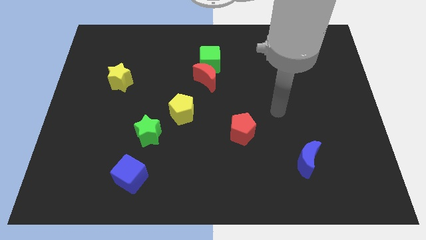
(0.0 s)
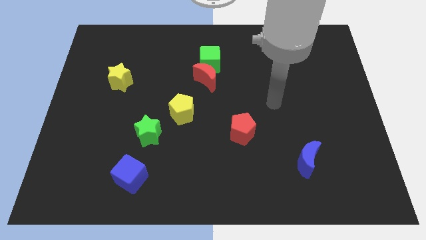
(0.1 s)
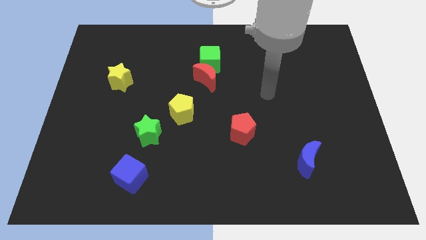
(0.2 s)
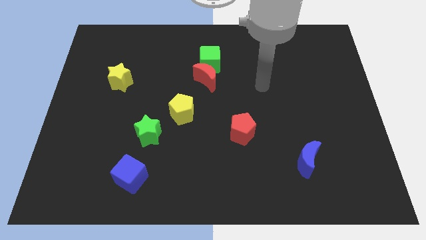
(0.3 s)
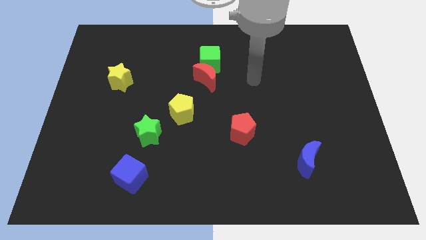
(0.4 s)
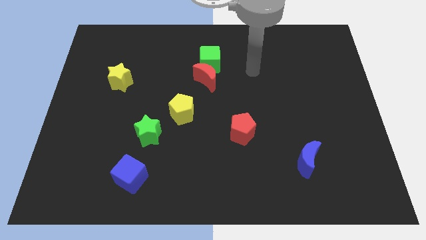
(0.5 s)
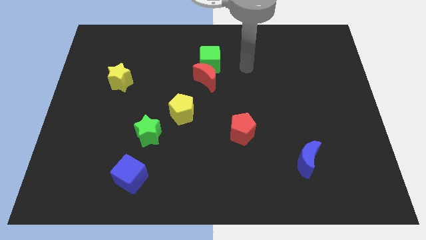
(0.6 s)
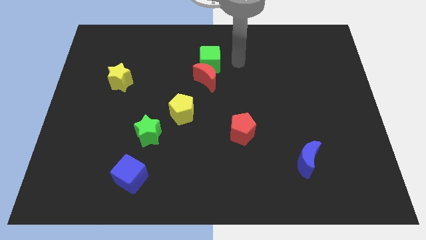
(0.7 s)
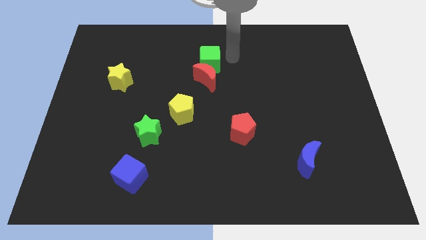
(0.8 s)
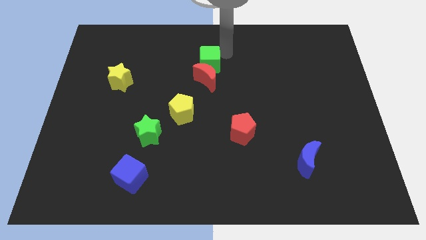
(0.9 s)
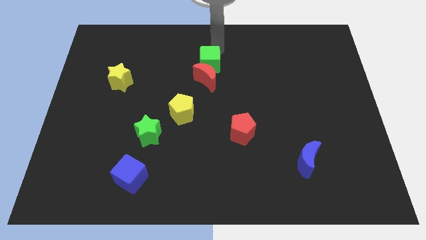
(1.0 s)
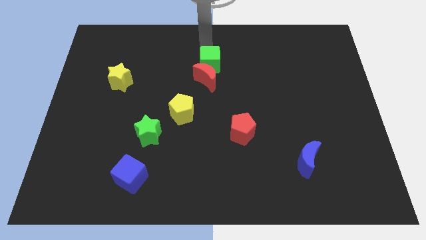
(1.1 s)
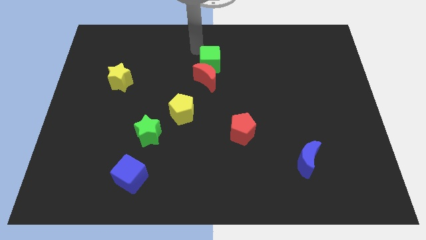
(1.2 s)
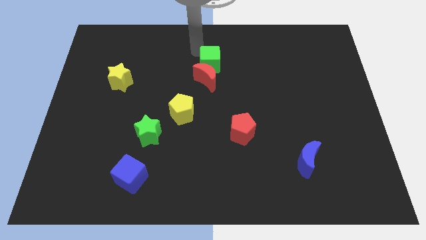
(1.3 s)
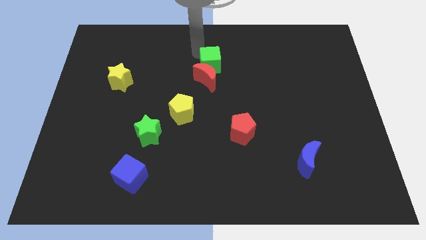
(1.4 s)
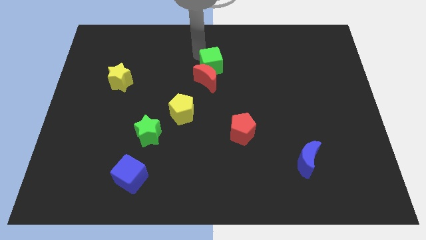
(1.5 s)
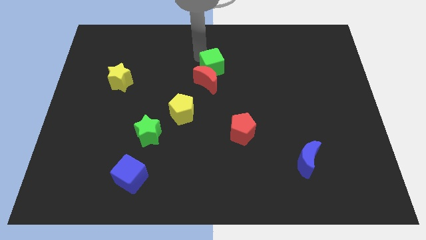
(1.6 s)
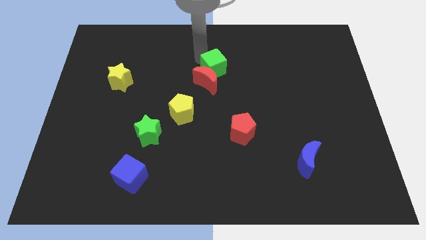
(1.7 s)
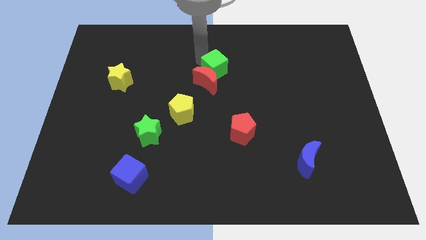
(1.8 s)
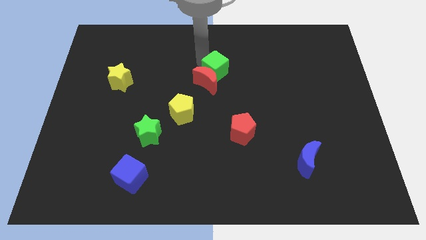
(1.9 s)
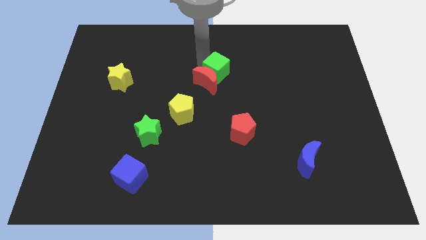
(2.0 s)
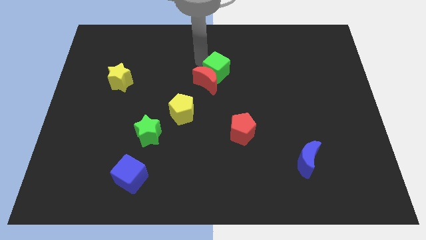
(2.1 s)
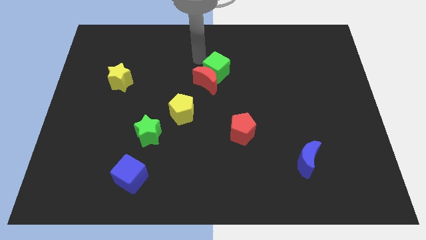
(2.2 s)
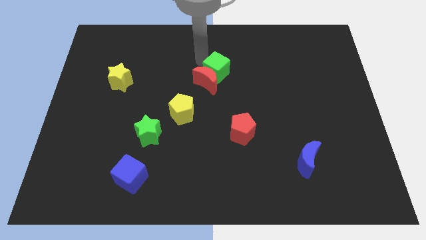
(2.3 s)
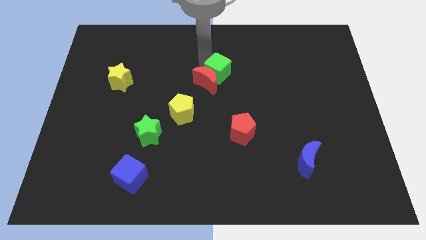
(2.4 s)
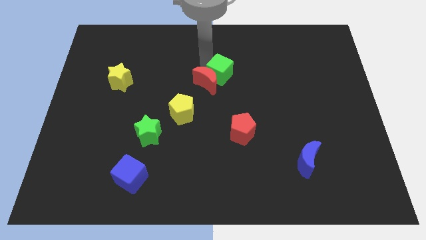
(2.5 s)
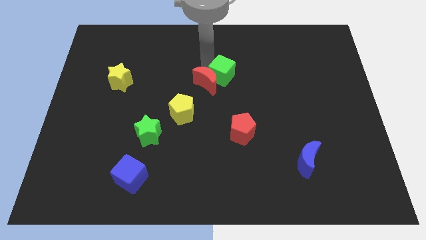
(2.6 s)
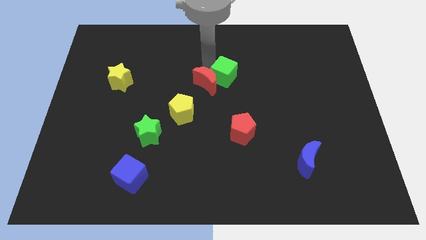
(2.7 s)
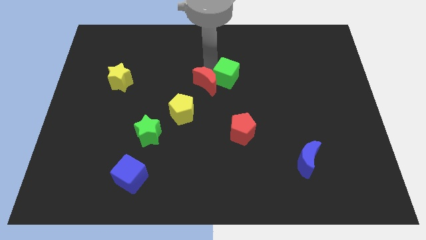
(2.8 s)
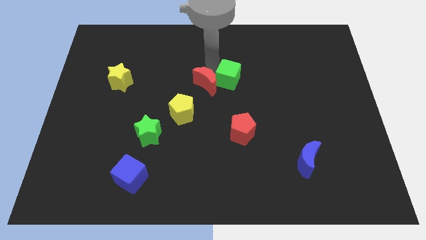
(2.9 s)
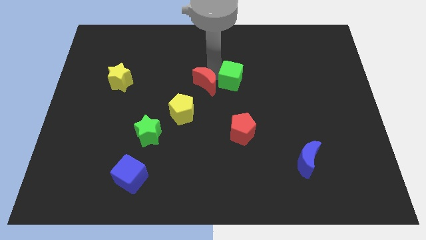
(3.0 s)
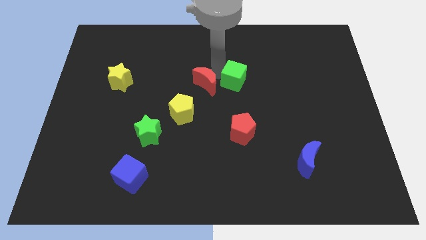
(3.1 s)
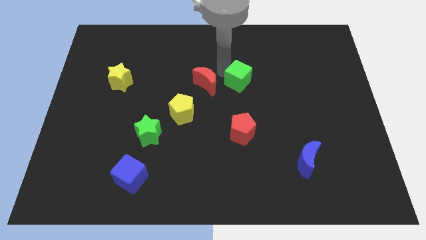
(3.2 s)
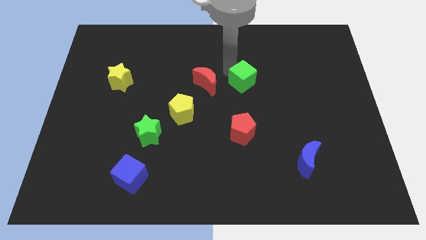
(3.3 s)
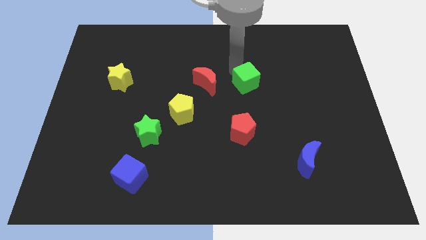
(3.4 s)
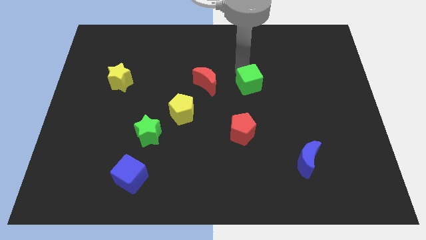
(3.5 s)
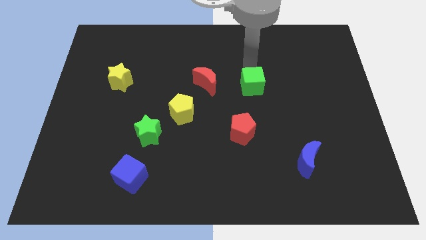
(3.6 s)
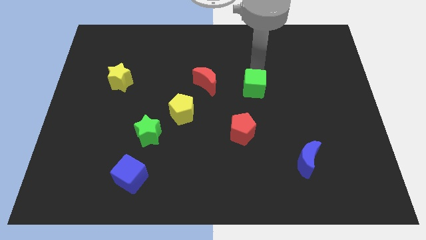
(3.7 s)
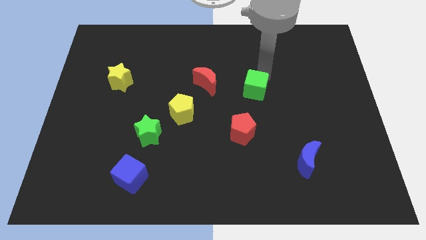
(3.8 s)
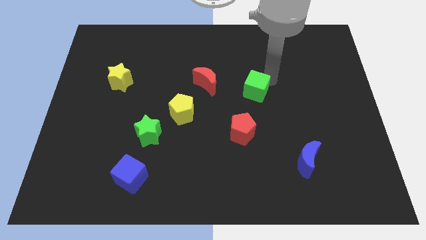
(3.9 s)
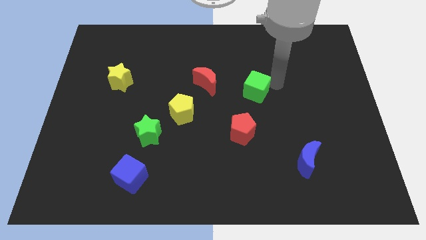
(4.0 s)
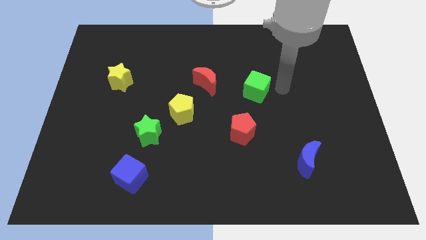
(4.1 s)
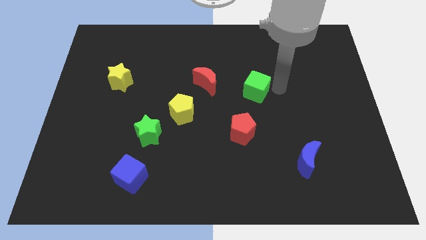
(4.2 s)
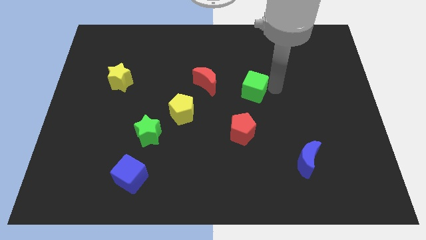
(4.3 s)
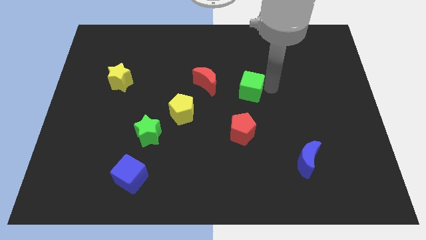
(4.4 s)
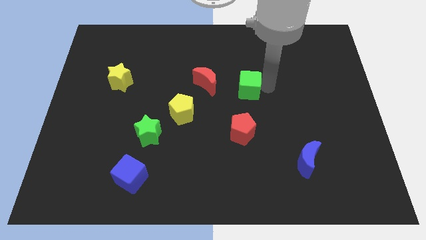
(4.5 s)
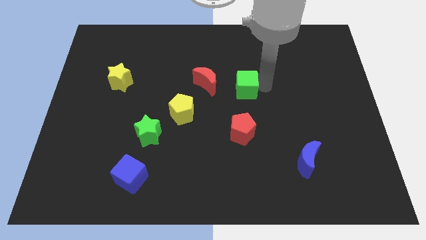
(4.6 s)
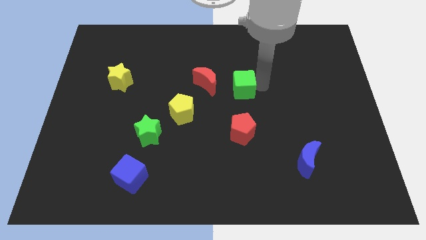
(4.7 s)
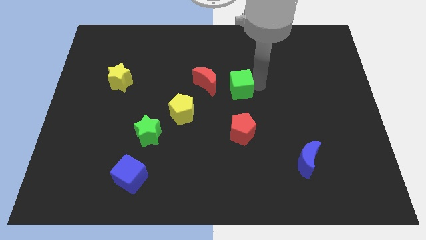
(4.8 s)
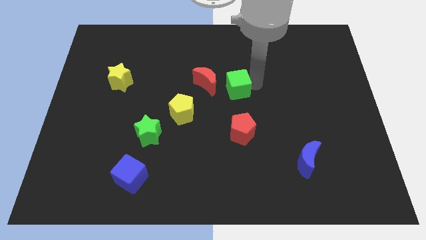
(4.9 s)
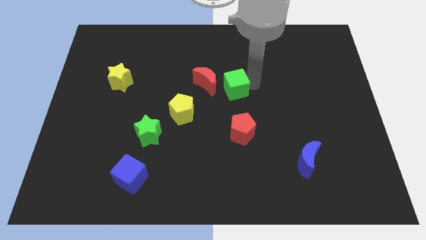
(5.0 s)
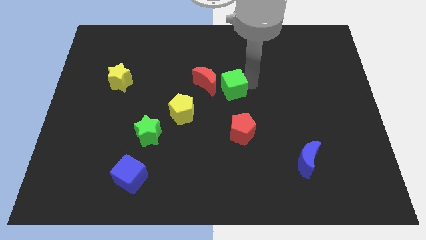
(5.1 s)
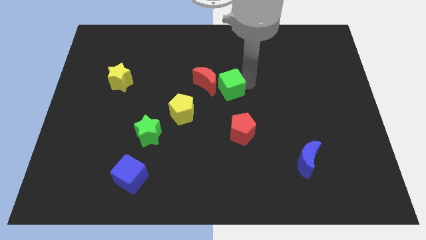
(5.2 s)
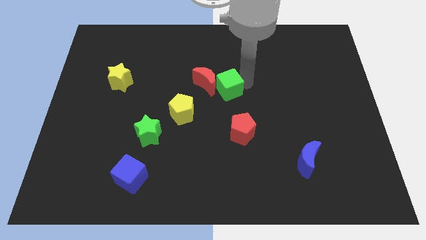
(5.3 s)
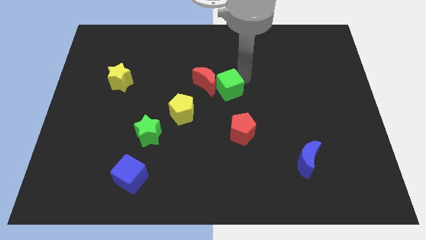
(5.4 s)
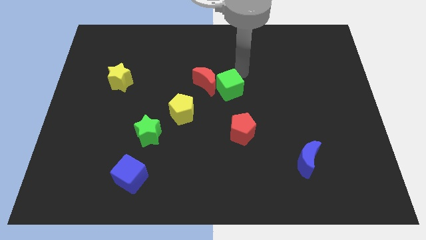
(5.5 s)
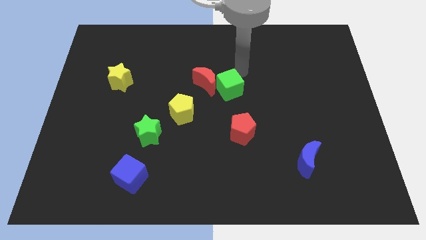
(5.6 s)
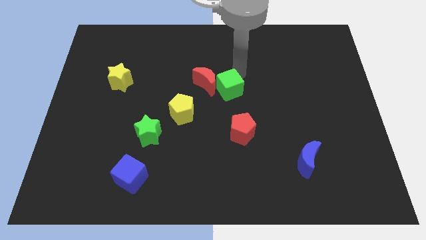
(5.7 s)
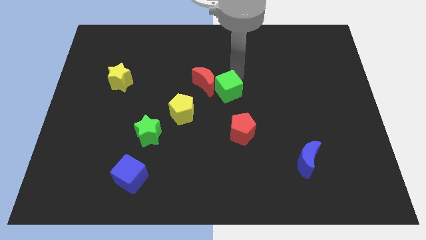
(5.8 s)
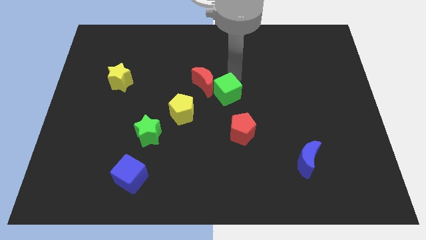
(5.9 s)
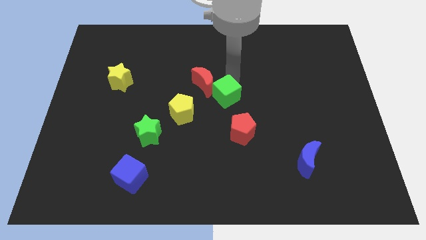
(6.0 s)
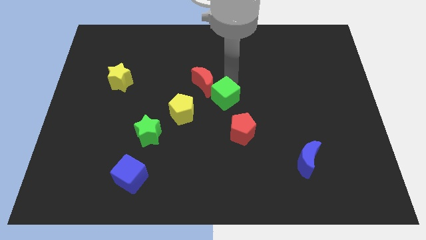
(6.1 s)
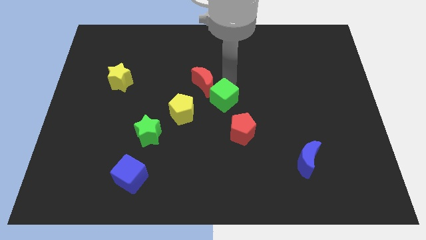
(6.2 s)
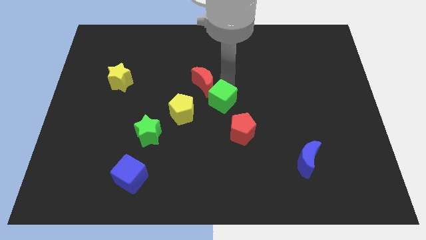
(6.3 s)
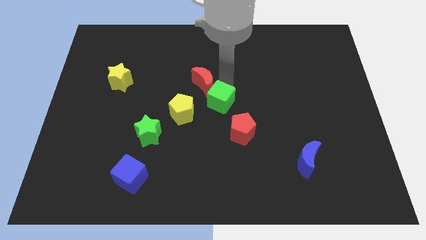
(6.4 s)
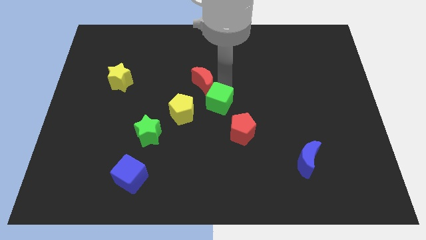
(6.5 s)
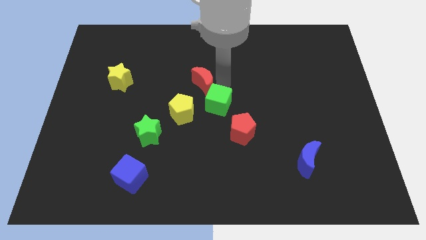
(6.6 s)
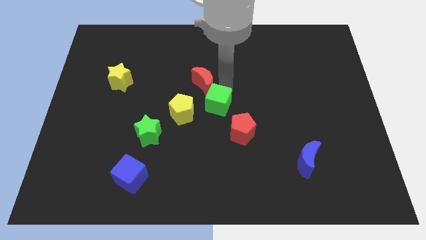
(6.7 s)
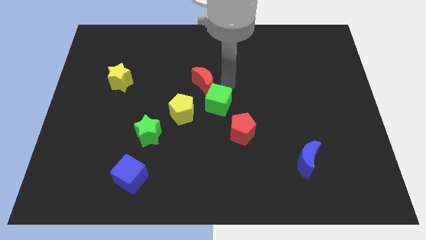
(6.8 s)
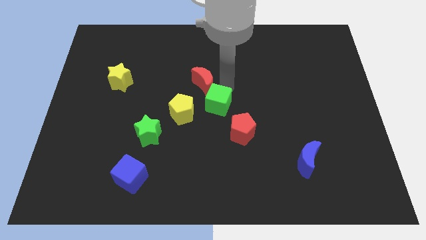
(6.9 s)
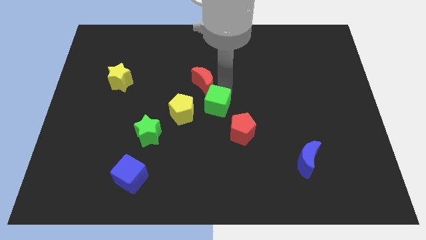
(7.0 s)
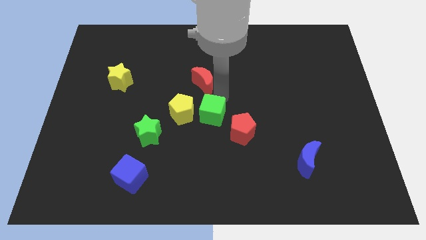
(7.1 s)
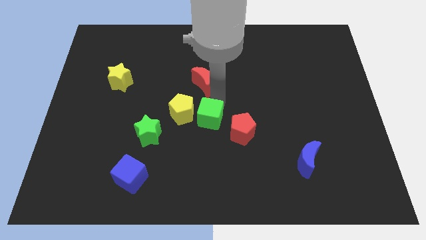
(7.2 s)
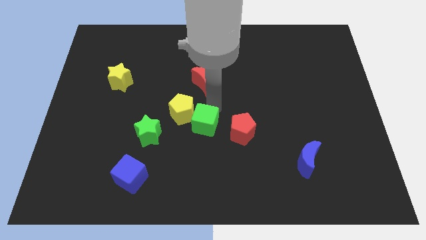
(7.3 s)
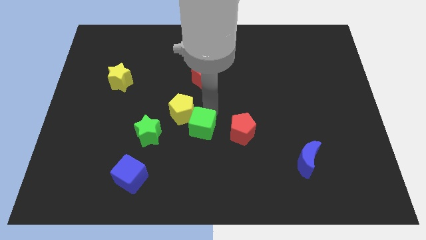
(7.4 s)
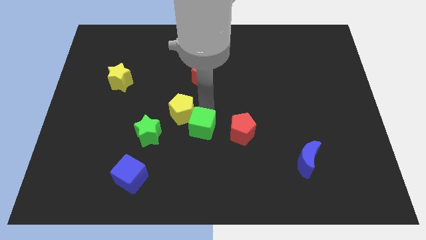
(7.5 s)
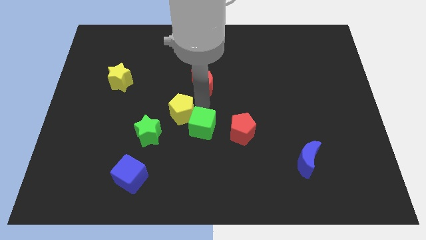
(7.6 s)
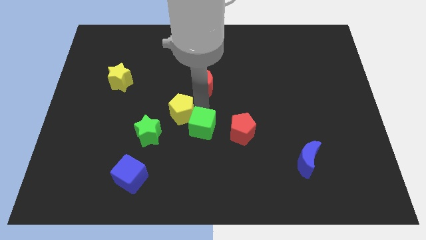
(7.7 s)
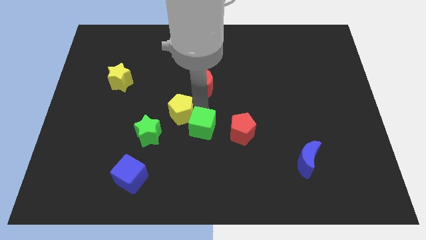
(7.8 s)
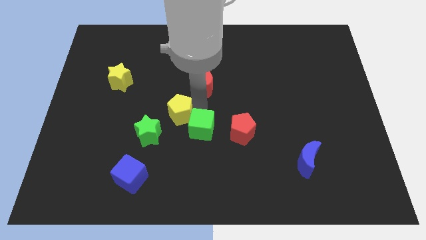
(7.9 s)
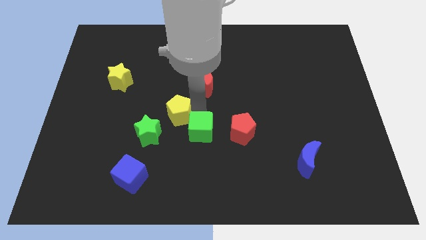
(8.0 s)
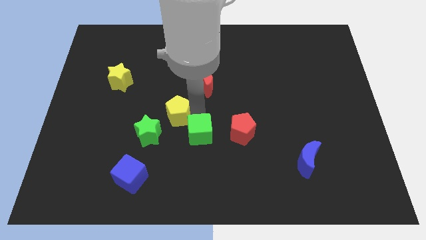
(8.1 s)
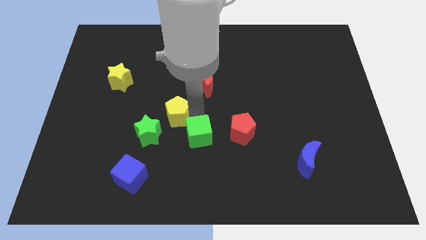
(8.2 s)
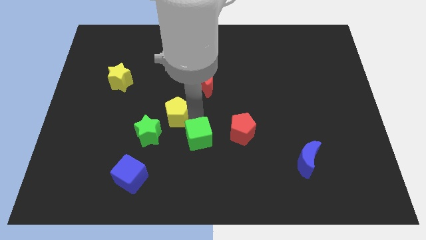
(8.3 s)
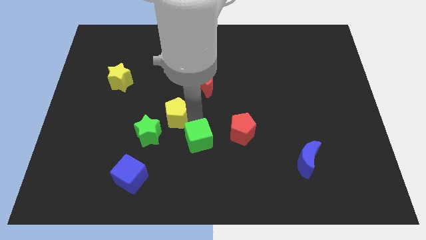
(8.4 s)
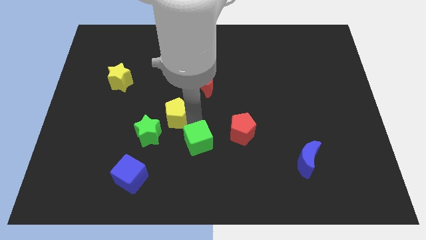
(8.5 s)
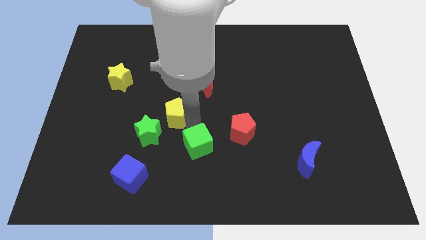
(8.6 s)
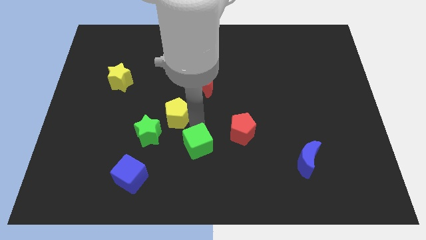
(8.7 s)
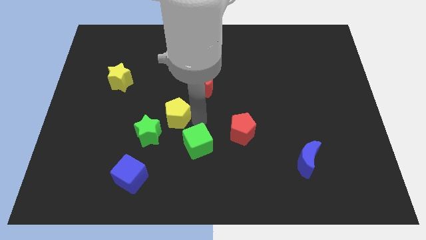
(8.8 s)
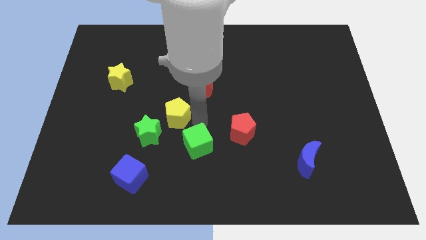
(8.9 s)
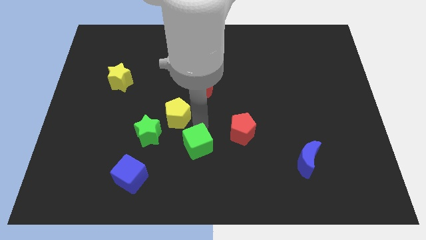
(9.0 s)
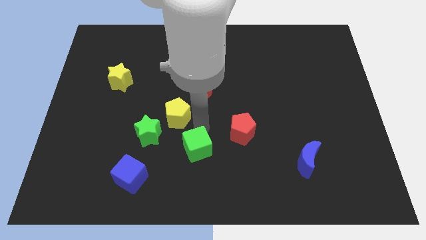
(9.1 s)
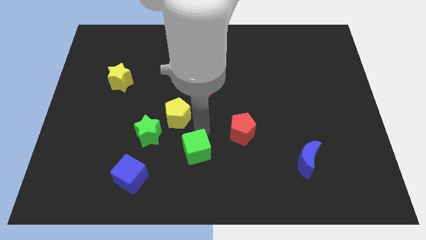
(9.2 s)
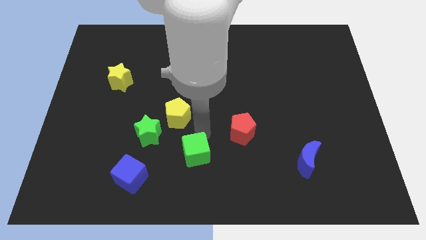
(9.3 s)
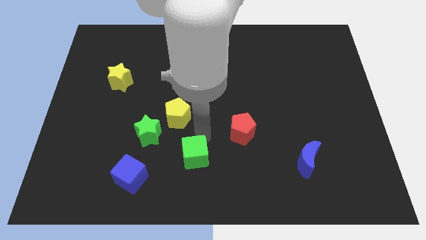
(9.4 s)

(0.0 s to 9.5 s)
slide the green cube to the bottom side
